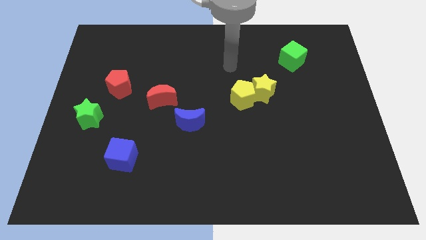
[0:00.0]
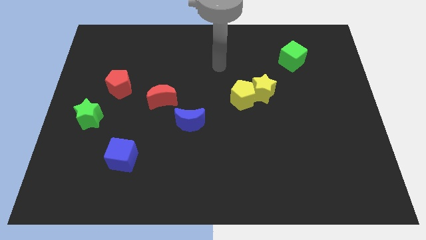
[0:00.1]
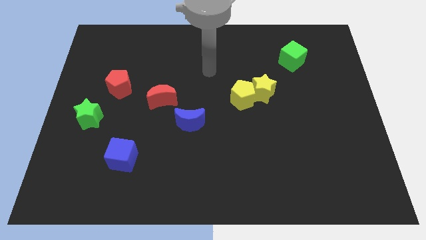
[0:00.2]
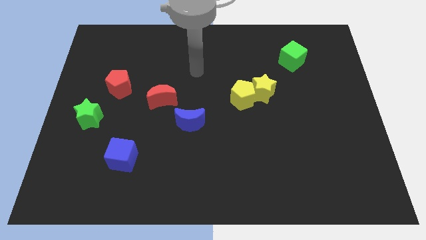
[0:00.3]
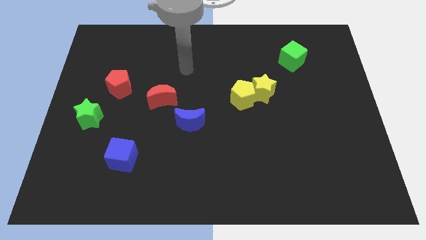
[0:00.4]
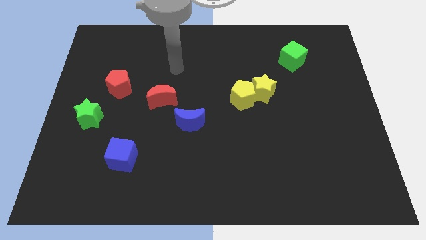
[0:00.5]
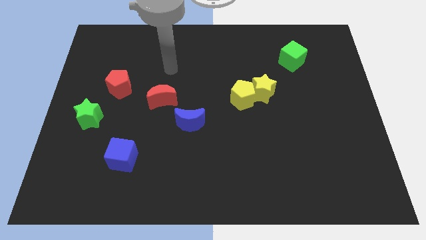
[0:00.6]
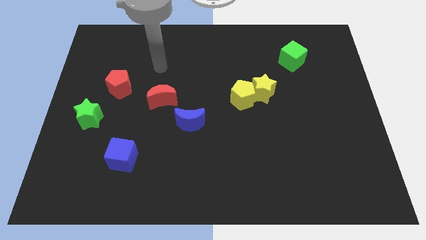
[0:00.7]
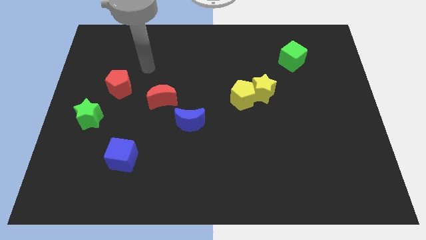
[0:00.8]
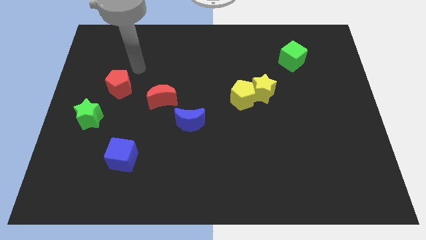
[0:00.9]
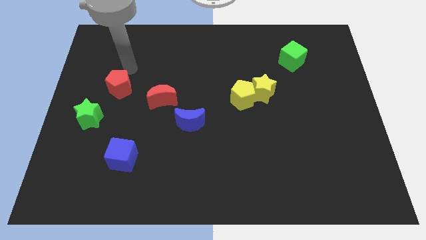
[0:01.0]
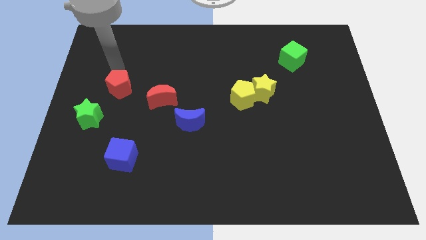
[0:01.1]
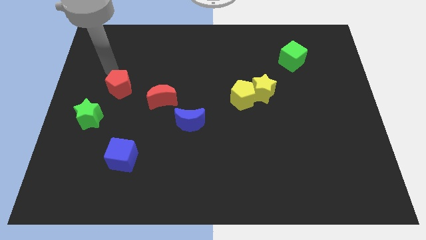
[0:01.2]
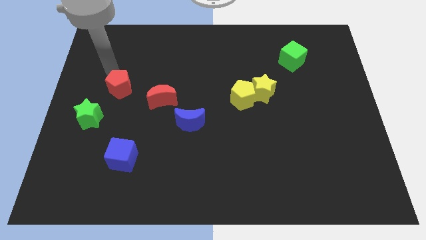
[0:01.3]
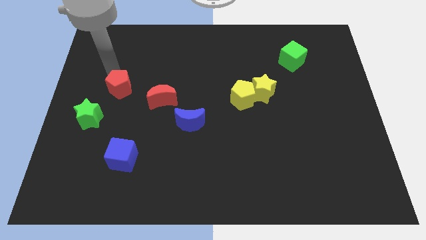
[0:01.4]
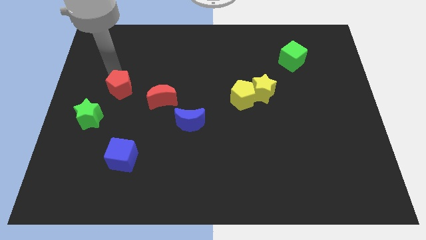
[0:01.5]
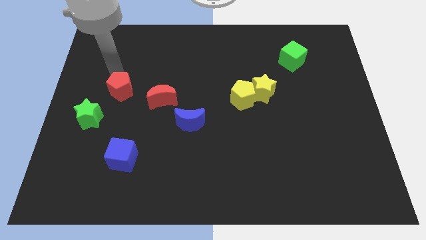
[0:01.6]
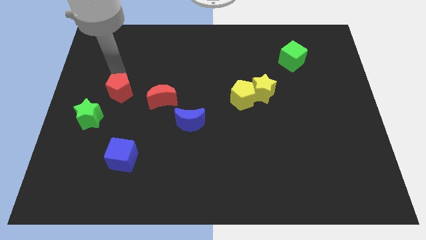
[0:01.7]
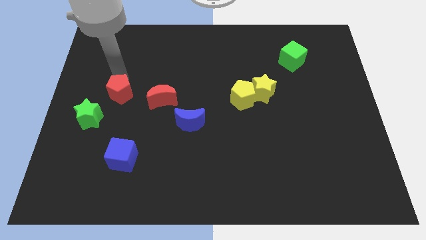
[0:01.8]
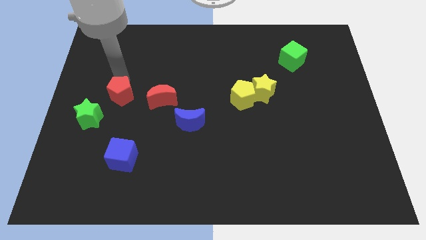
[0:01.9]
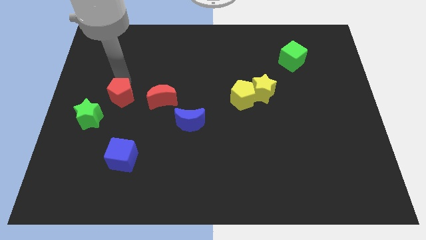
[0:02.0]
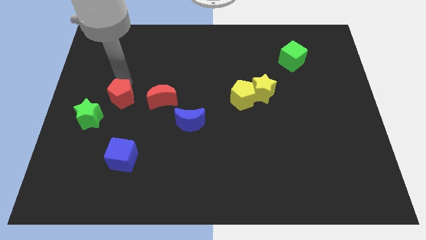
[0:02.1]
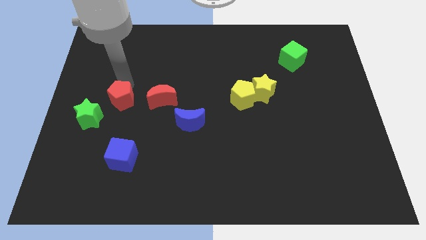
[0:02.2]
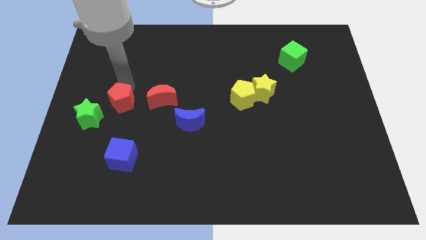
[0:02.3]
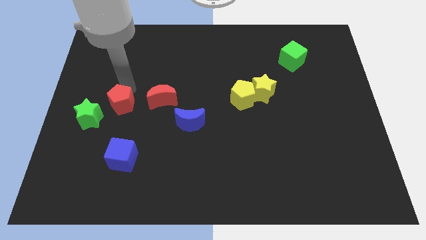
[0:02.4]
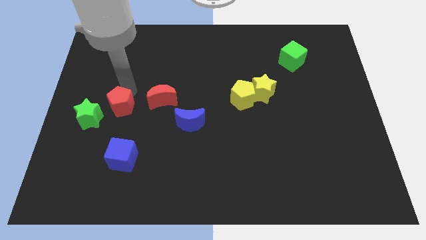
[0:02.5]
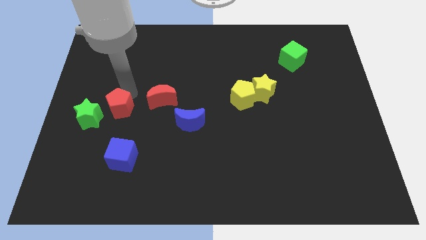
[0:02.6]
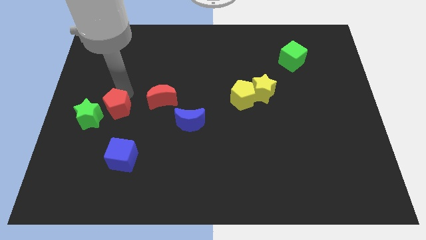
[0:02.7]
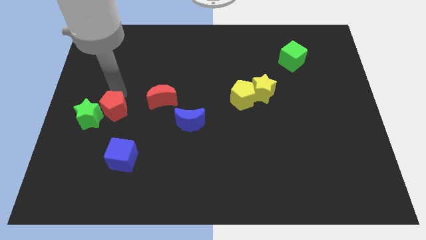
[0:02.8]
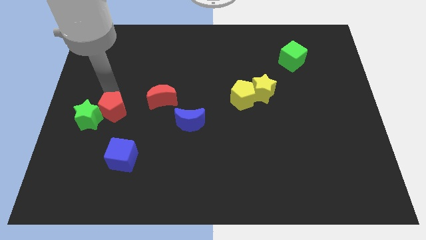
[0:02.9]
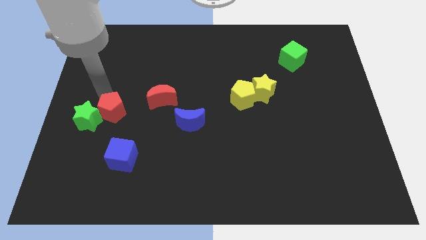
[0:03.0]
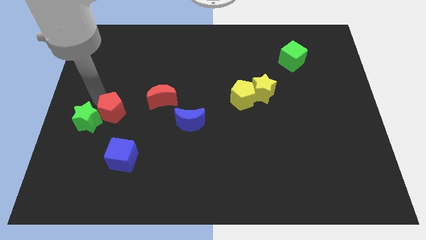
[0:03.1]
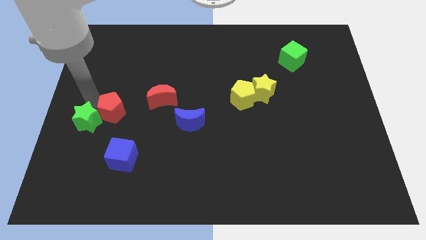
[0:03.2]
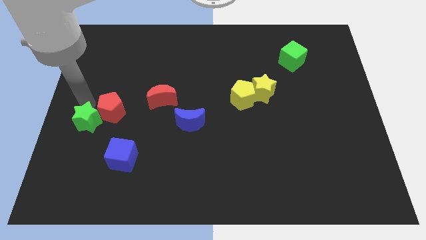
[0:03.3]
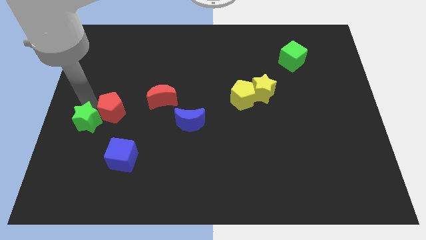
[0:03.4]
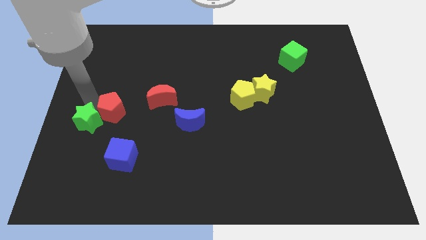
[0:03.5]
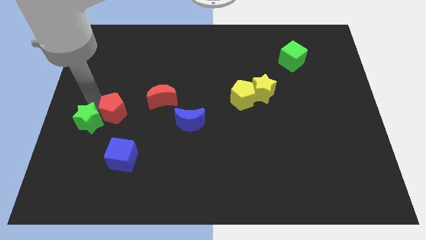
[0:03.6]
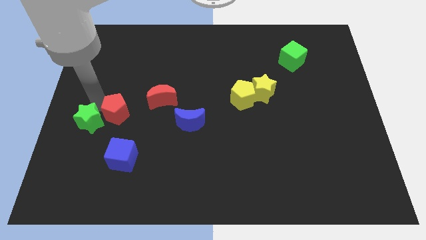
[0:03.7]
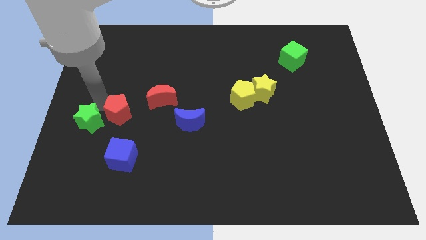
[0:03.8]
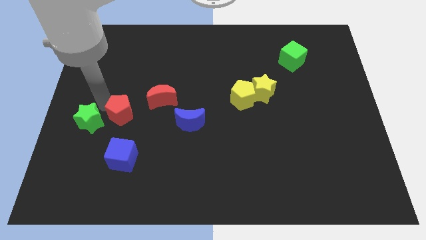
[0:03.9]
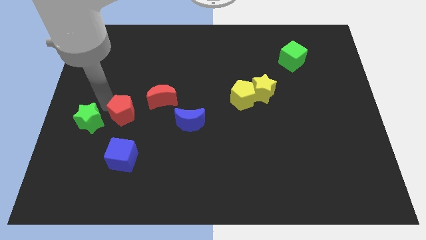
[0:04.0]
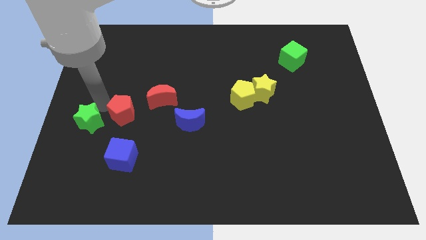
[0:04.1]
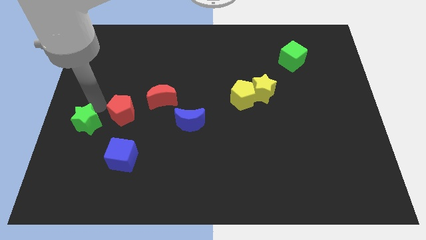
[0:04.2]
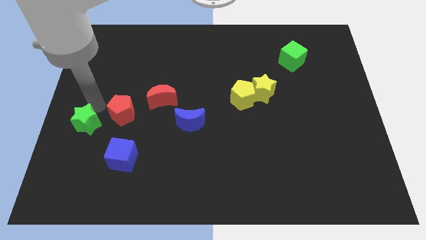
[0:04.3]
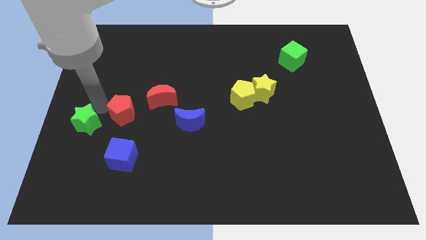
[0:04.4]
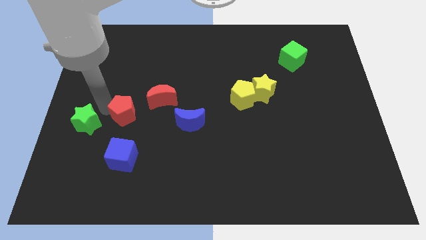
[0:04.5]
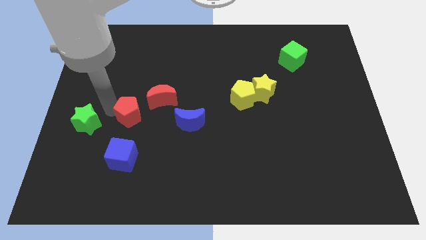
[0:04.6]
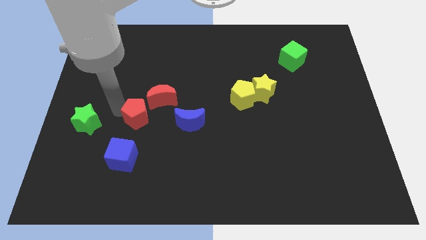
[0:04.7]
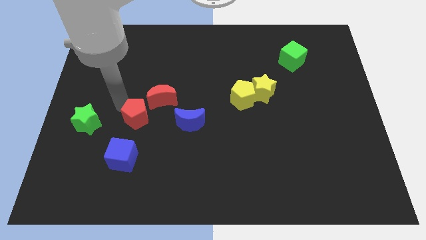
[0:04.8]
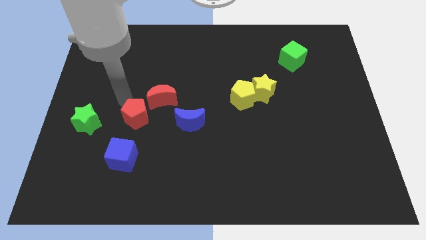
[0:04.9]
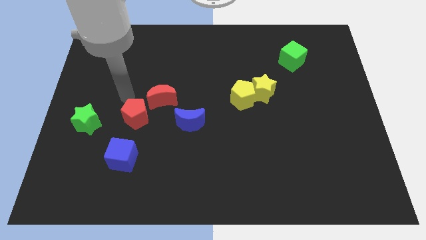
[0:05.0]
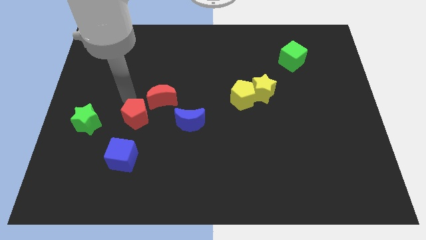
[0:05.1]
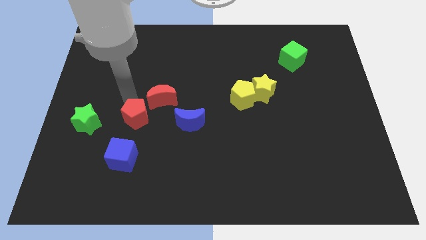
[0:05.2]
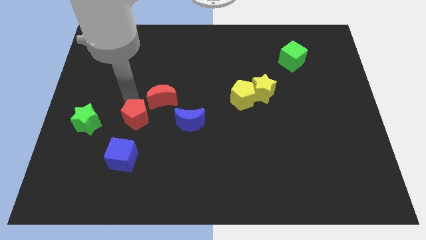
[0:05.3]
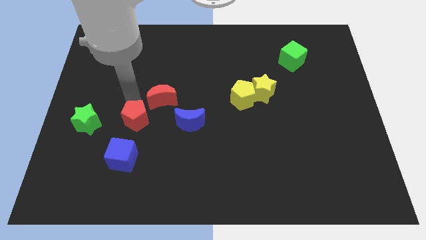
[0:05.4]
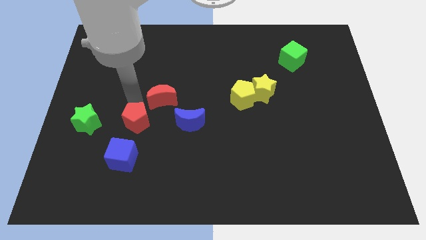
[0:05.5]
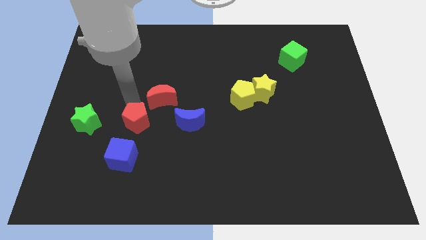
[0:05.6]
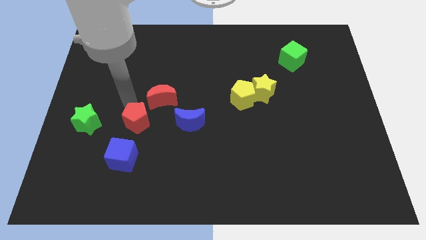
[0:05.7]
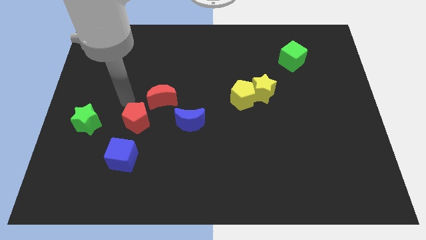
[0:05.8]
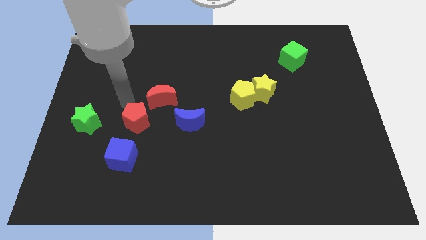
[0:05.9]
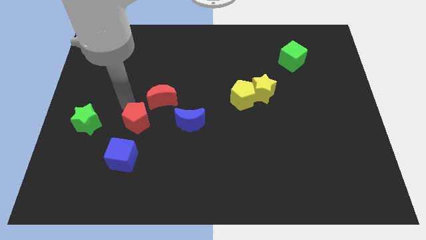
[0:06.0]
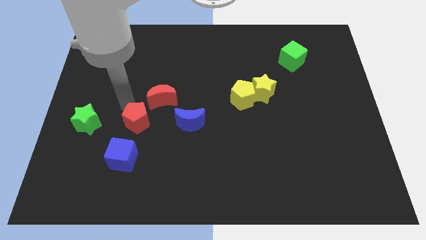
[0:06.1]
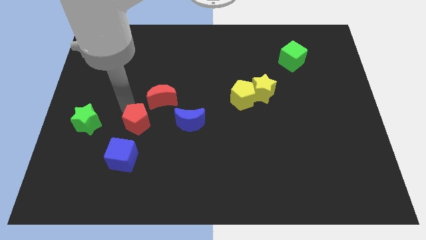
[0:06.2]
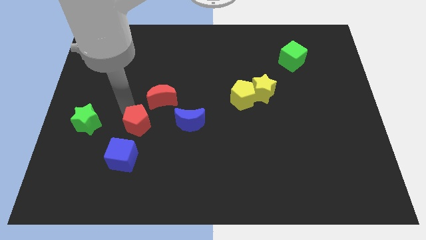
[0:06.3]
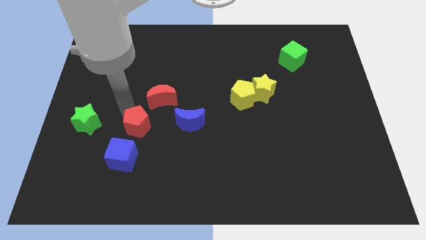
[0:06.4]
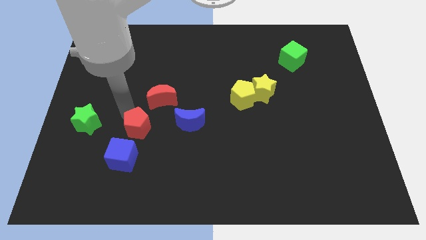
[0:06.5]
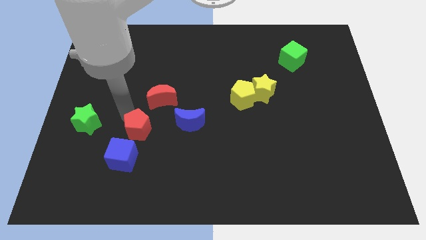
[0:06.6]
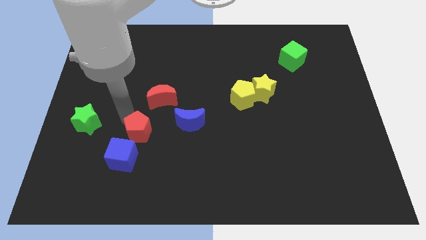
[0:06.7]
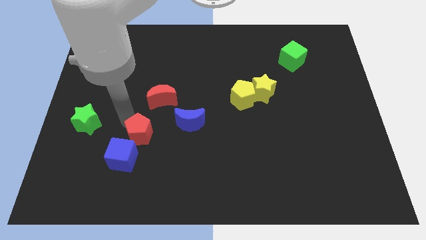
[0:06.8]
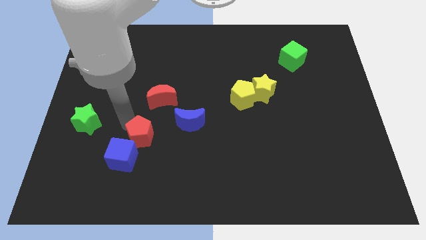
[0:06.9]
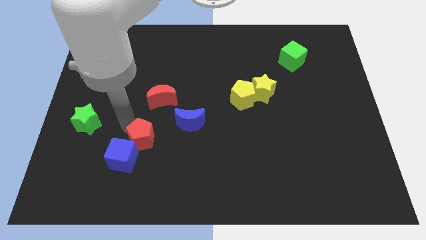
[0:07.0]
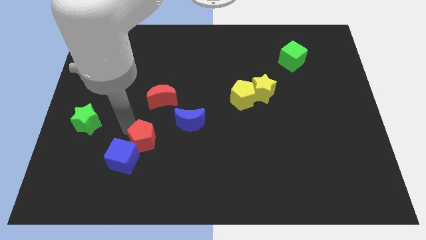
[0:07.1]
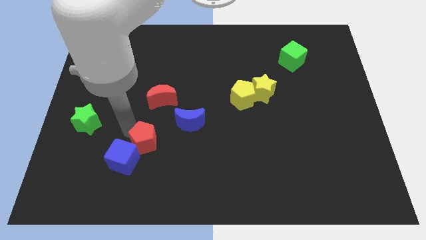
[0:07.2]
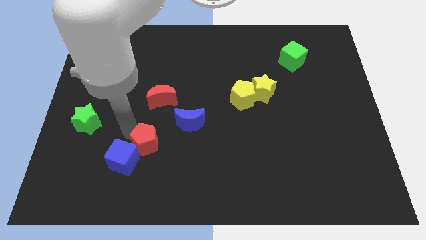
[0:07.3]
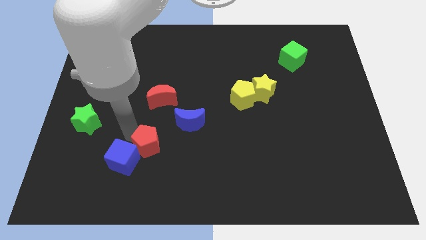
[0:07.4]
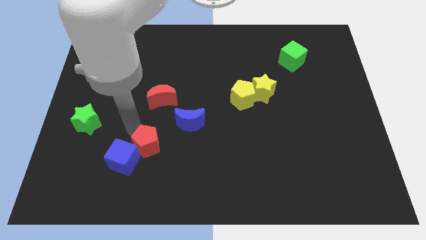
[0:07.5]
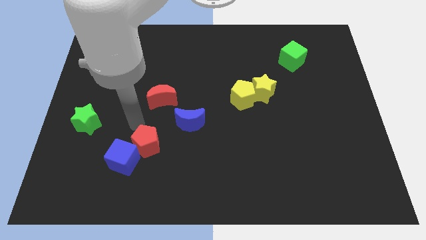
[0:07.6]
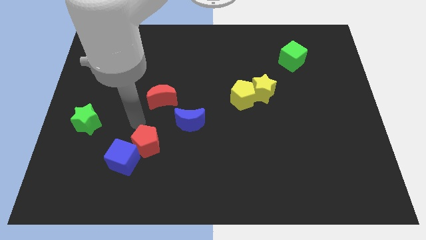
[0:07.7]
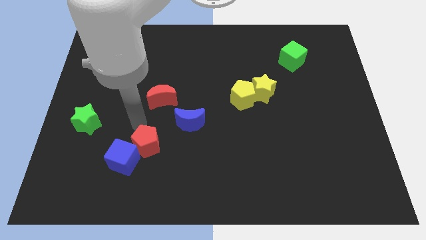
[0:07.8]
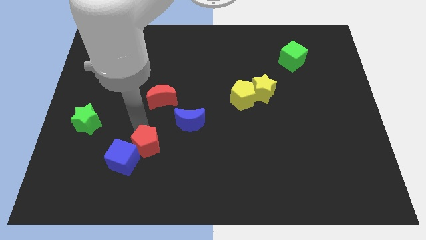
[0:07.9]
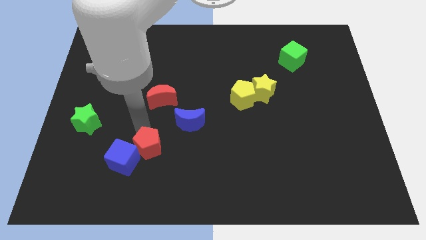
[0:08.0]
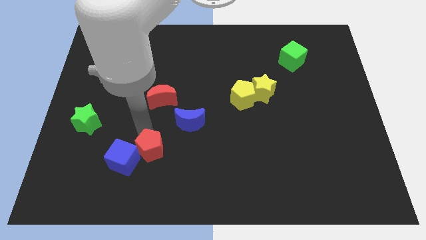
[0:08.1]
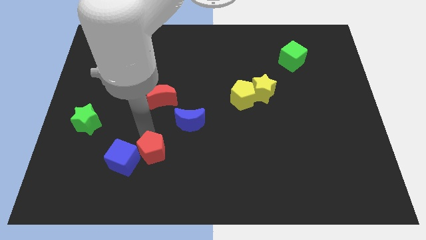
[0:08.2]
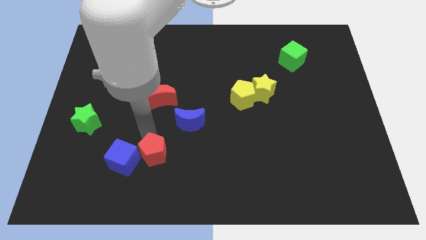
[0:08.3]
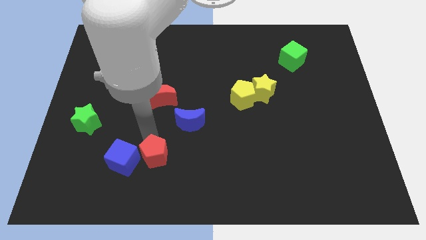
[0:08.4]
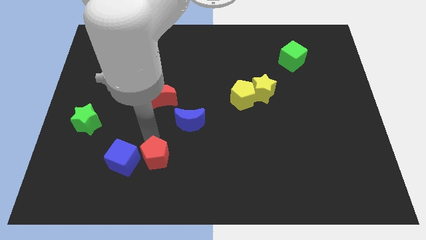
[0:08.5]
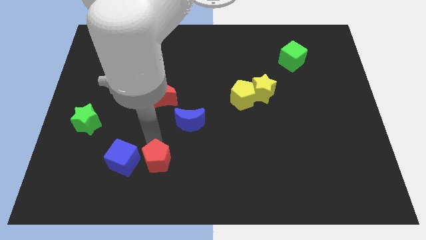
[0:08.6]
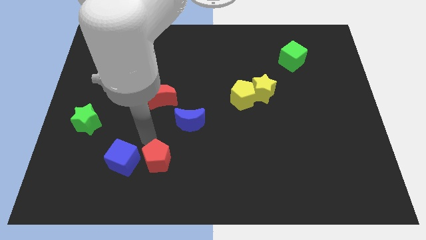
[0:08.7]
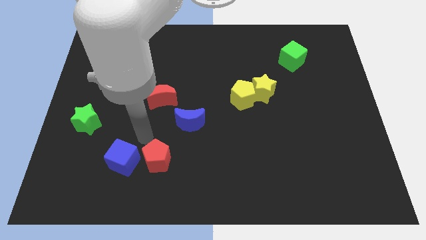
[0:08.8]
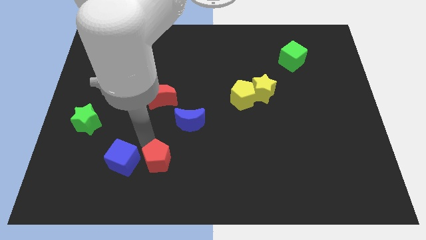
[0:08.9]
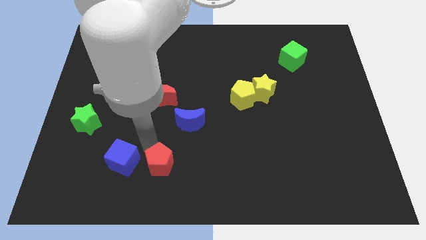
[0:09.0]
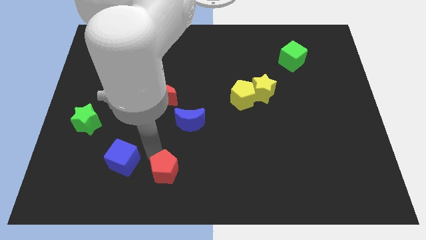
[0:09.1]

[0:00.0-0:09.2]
put the red pentagon to the bottom
